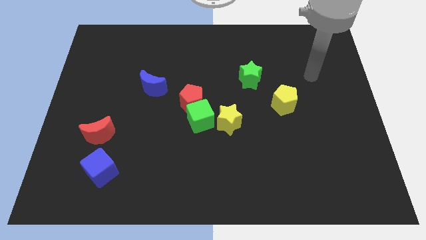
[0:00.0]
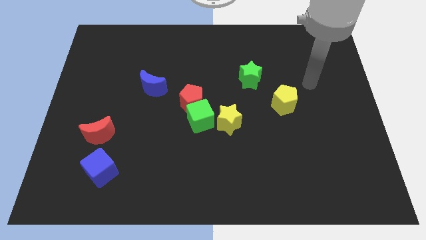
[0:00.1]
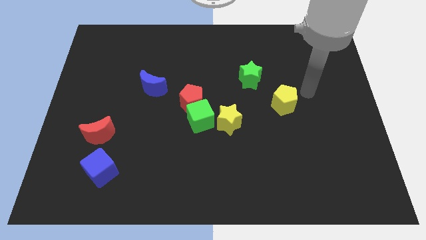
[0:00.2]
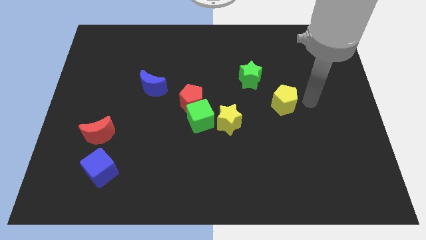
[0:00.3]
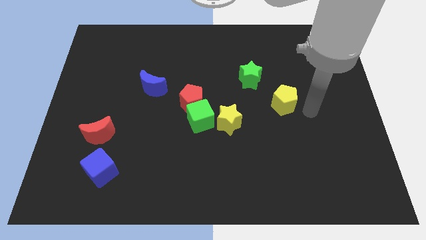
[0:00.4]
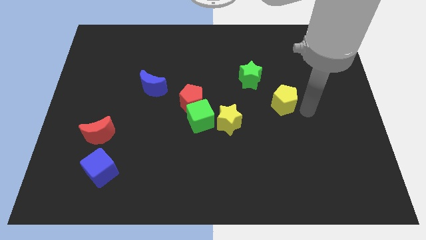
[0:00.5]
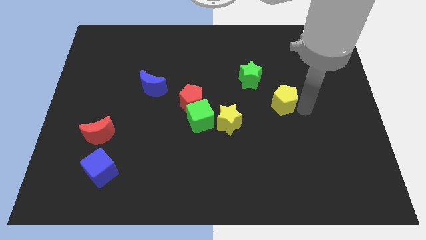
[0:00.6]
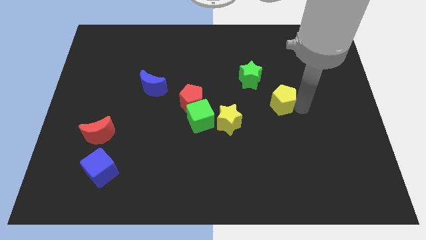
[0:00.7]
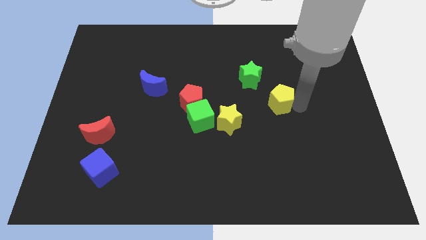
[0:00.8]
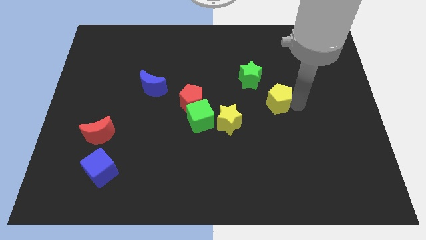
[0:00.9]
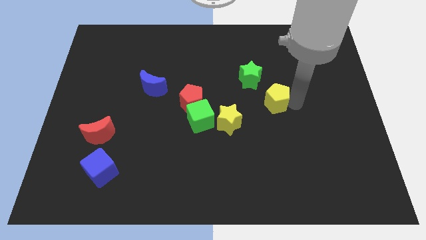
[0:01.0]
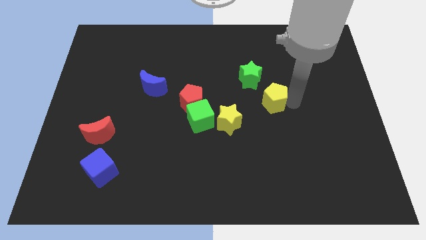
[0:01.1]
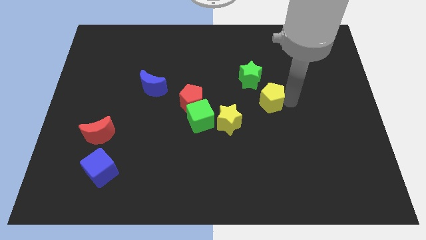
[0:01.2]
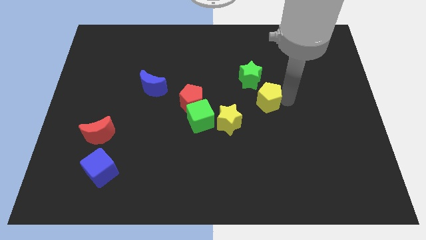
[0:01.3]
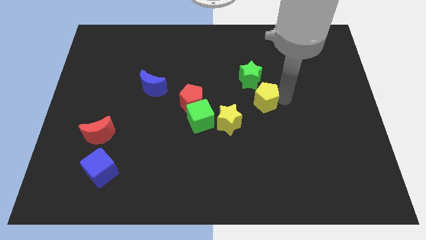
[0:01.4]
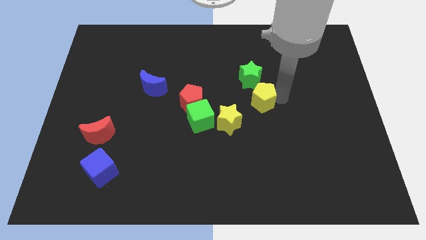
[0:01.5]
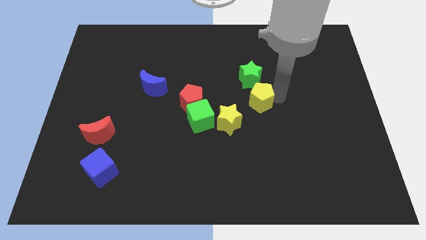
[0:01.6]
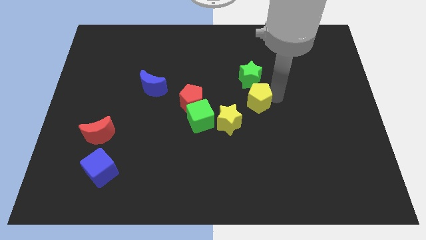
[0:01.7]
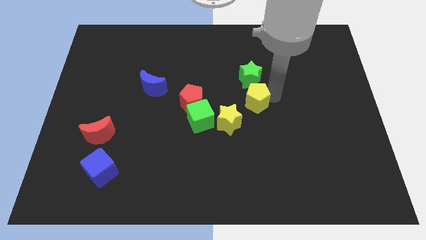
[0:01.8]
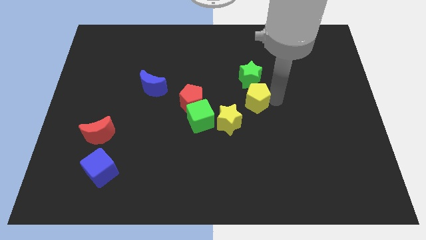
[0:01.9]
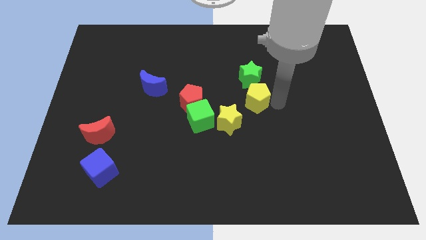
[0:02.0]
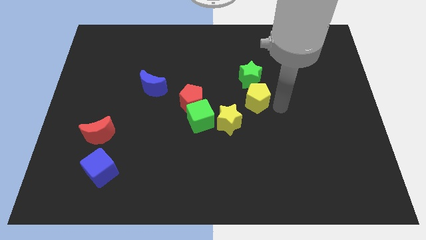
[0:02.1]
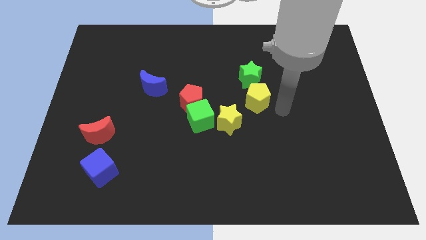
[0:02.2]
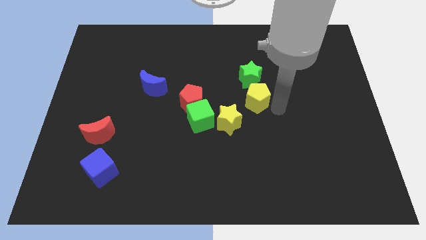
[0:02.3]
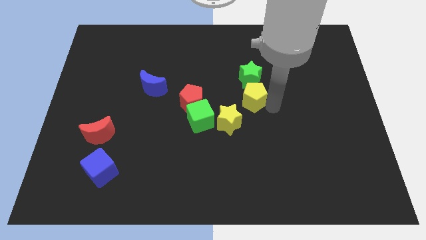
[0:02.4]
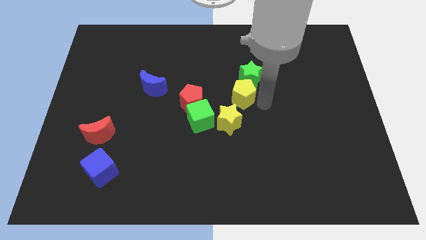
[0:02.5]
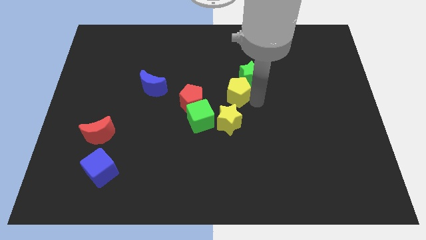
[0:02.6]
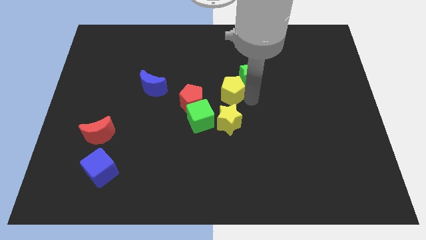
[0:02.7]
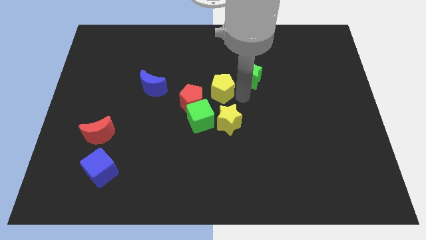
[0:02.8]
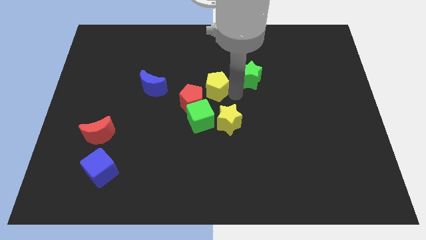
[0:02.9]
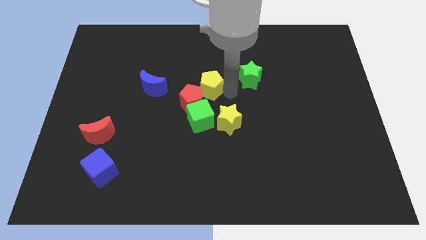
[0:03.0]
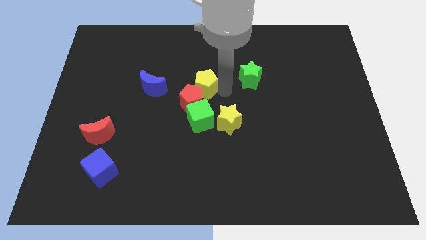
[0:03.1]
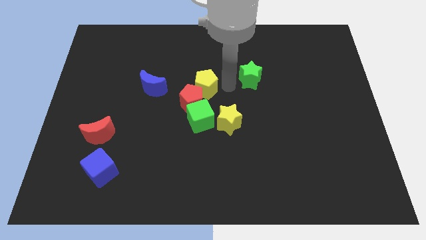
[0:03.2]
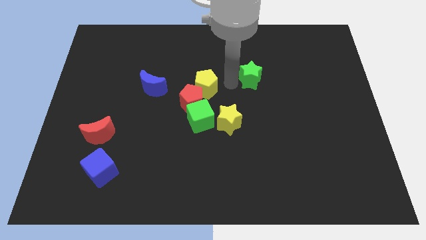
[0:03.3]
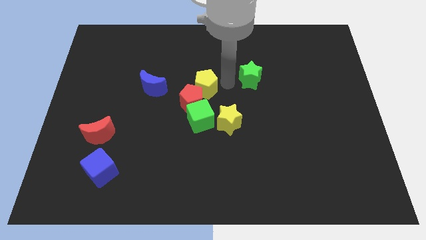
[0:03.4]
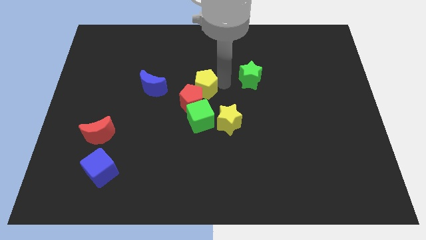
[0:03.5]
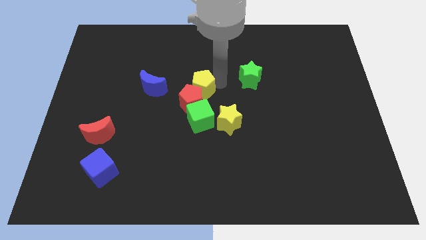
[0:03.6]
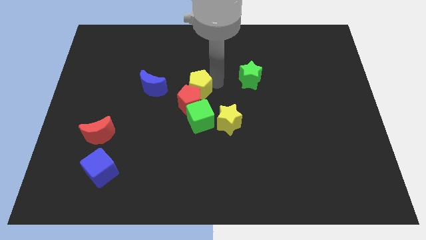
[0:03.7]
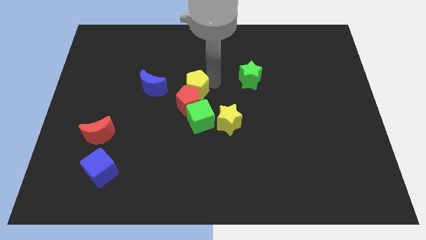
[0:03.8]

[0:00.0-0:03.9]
slide the yellow pentagon to the left

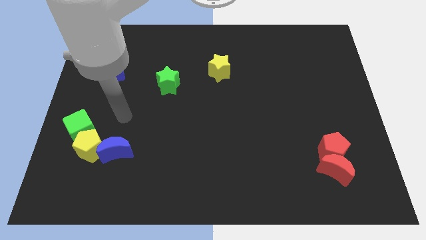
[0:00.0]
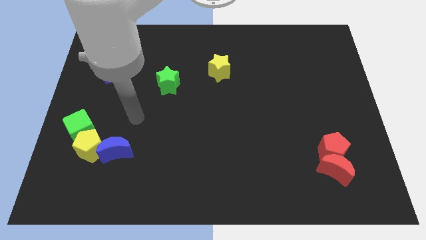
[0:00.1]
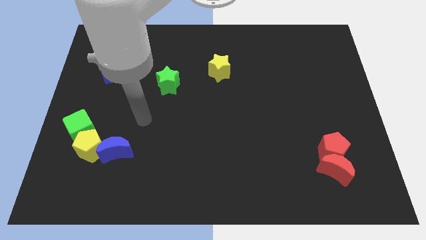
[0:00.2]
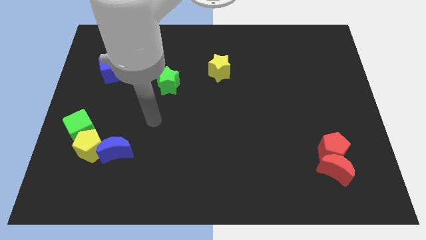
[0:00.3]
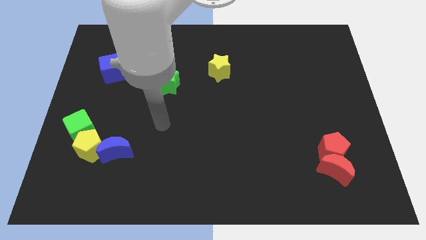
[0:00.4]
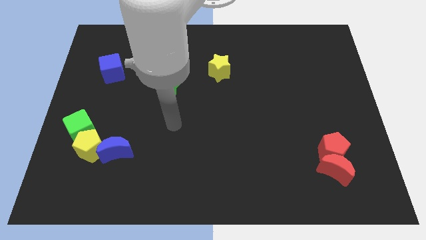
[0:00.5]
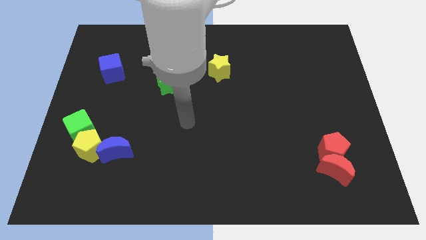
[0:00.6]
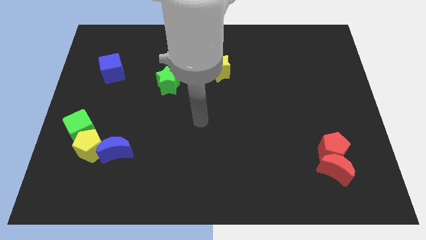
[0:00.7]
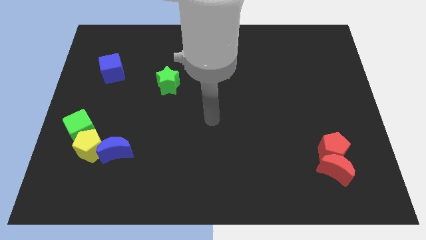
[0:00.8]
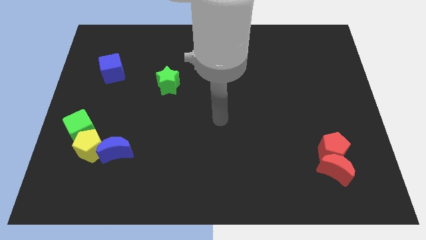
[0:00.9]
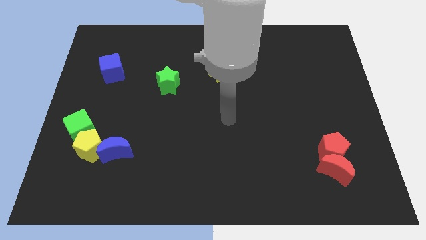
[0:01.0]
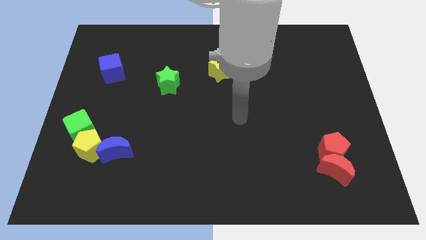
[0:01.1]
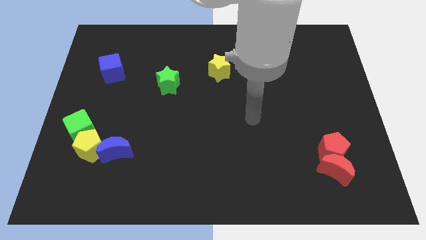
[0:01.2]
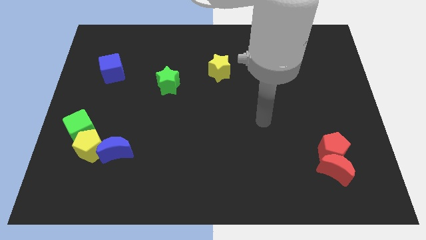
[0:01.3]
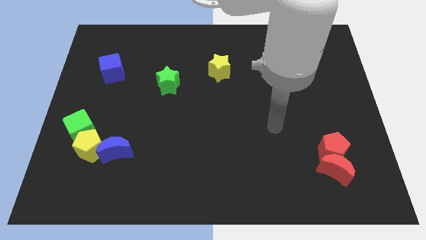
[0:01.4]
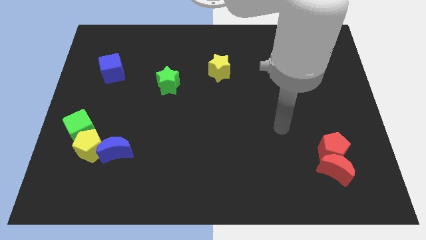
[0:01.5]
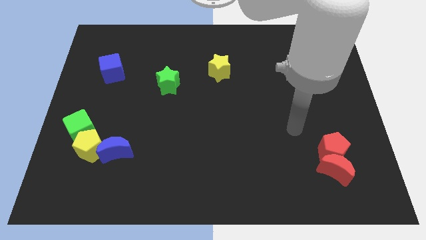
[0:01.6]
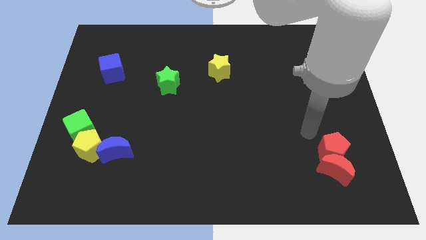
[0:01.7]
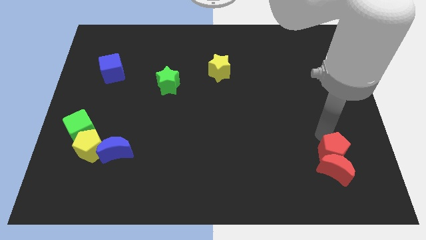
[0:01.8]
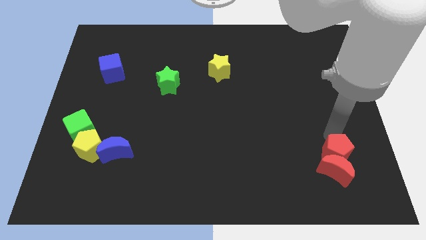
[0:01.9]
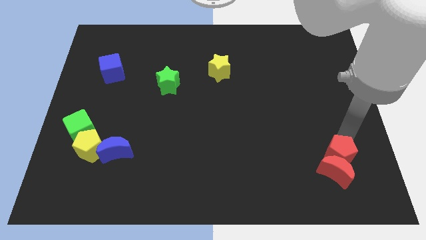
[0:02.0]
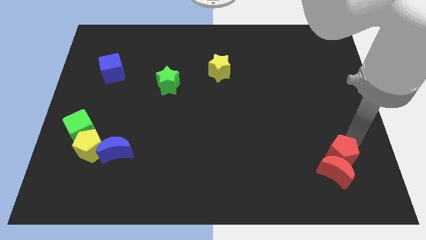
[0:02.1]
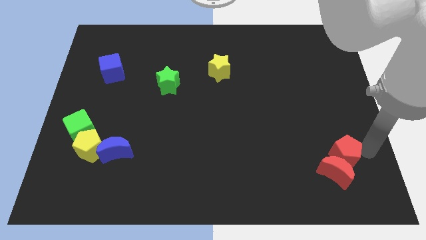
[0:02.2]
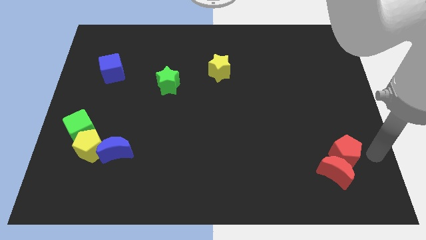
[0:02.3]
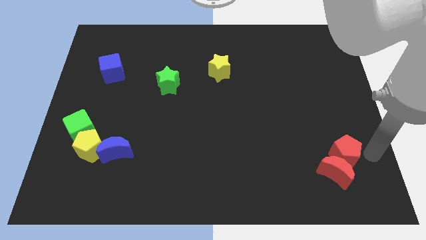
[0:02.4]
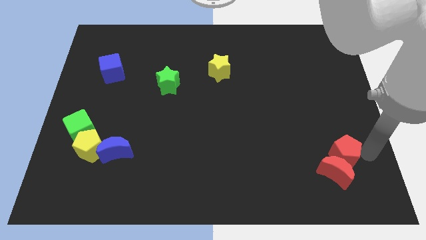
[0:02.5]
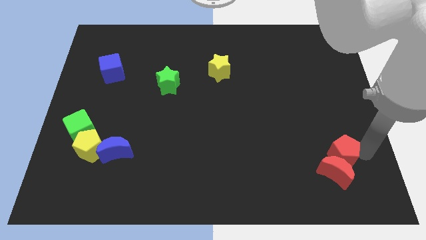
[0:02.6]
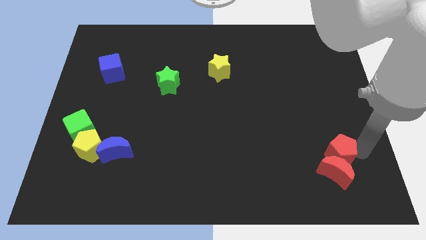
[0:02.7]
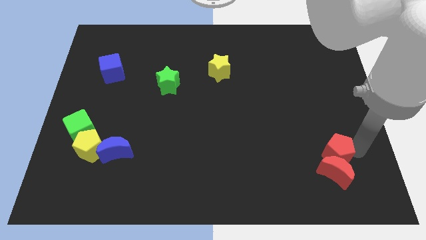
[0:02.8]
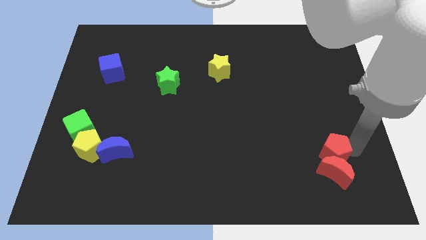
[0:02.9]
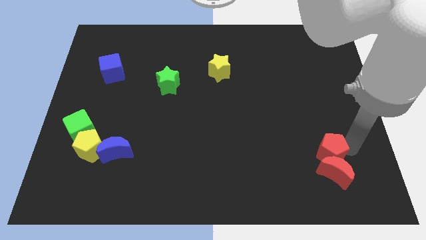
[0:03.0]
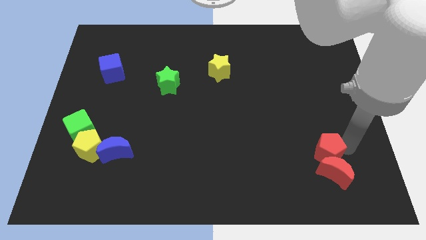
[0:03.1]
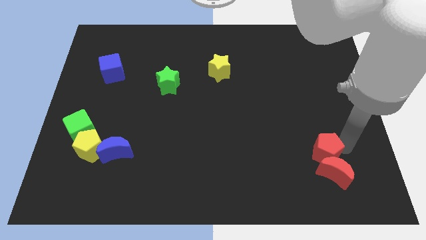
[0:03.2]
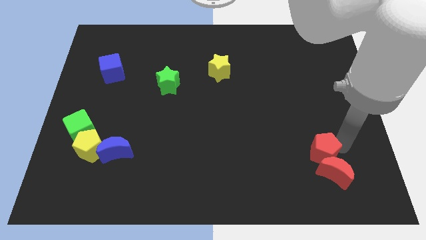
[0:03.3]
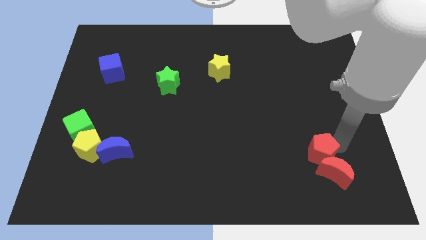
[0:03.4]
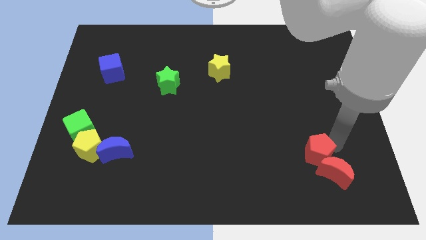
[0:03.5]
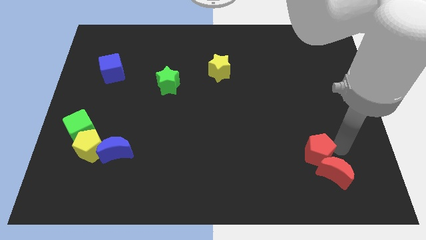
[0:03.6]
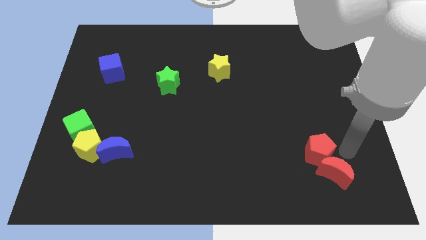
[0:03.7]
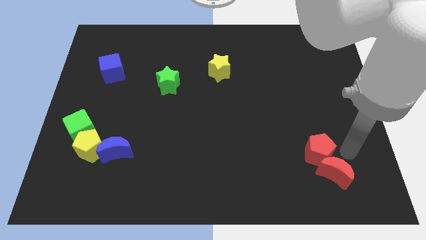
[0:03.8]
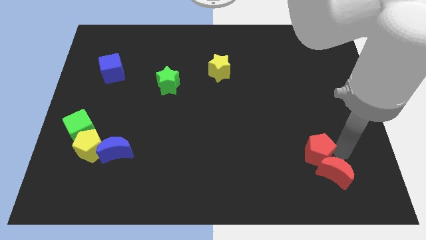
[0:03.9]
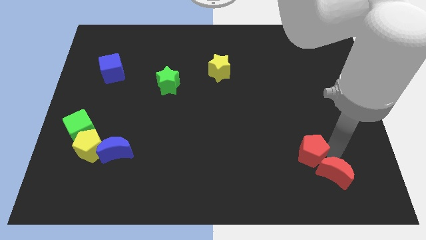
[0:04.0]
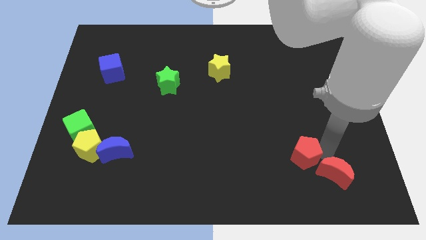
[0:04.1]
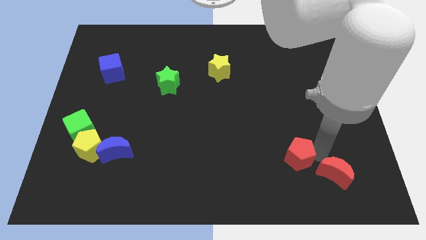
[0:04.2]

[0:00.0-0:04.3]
push the red pentagon somewhat to the left

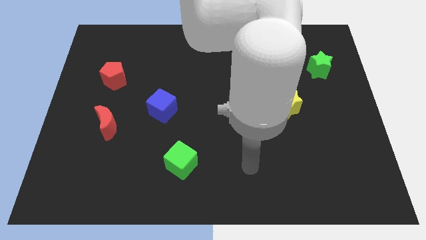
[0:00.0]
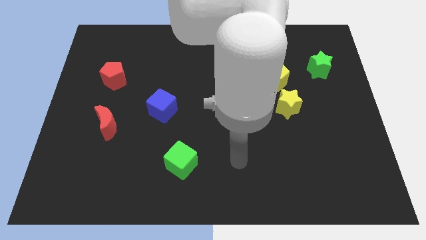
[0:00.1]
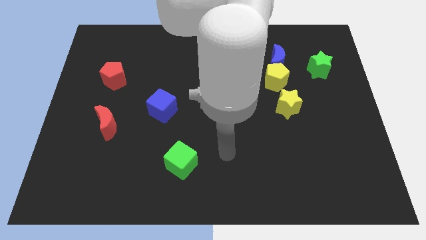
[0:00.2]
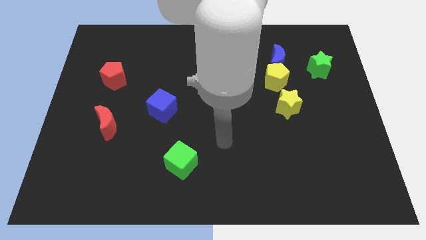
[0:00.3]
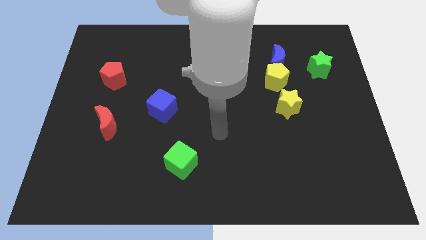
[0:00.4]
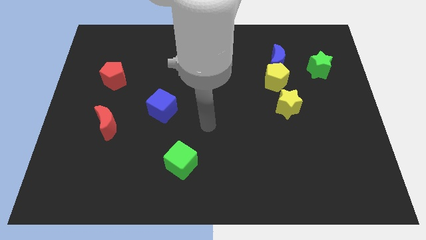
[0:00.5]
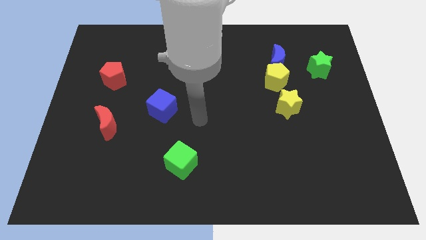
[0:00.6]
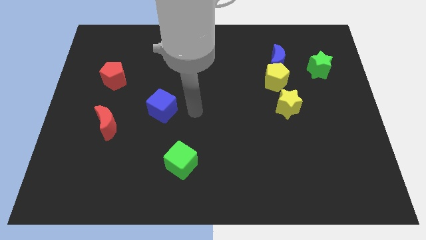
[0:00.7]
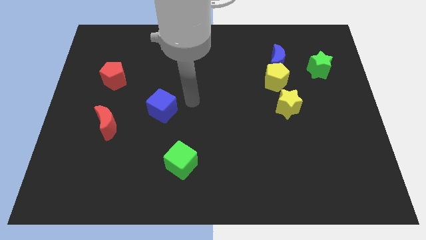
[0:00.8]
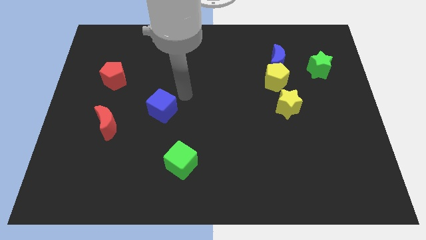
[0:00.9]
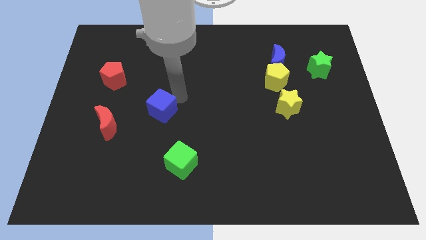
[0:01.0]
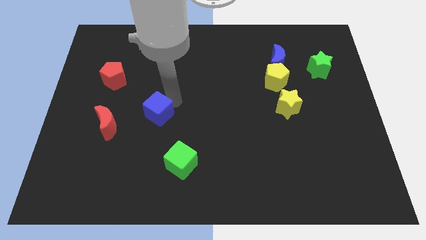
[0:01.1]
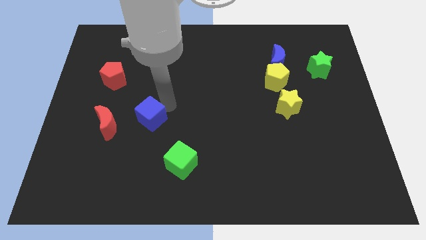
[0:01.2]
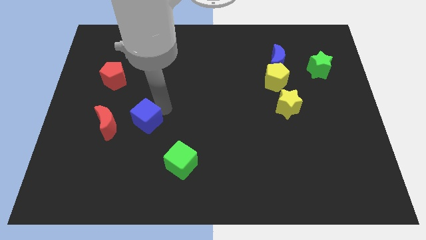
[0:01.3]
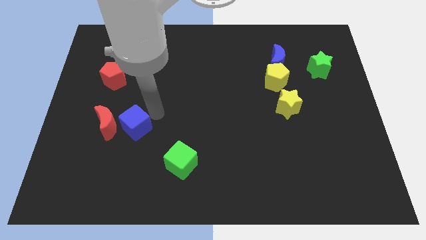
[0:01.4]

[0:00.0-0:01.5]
push the blue cube a little downwards and to the left
